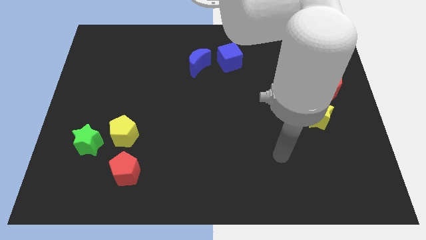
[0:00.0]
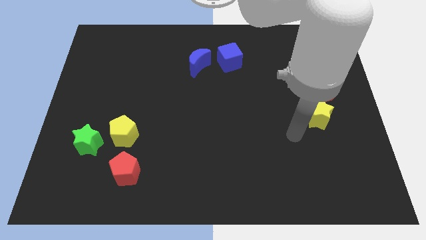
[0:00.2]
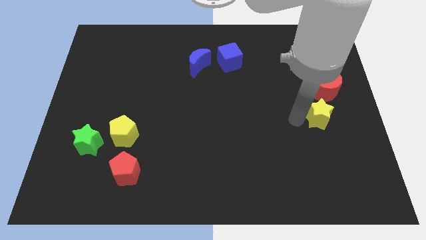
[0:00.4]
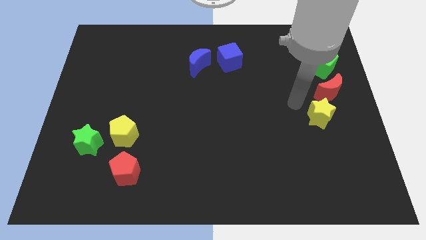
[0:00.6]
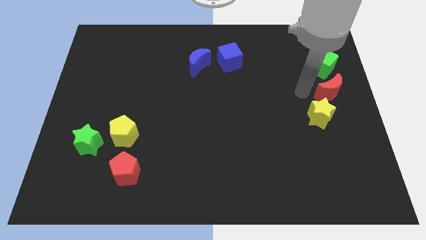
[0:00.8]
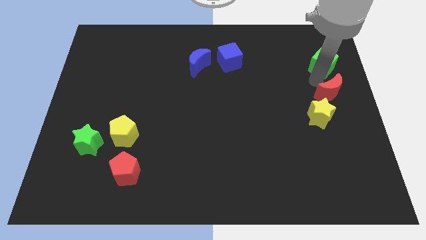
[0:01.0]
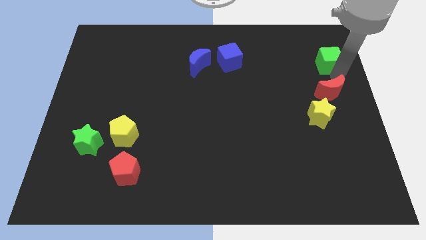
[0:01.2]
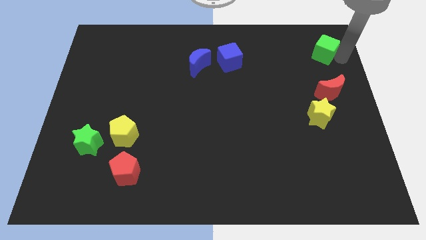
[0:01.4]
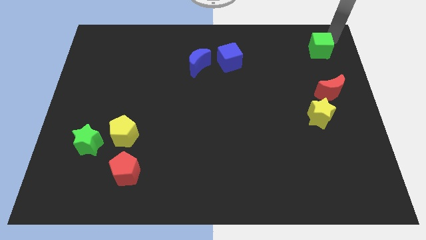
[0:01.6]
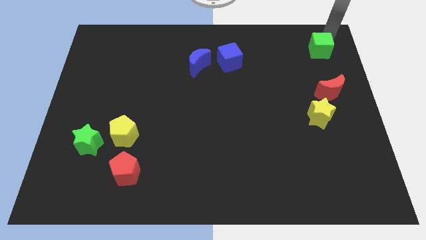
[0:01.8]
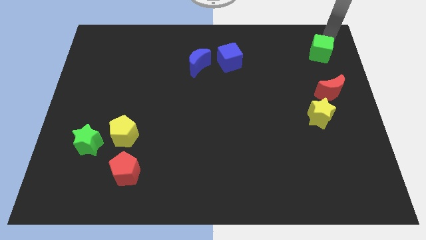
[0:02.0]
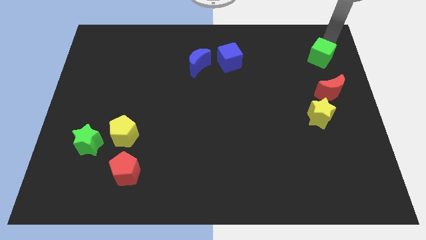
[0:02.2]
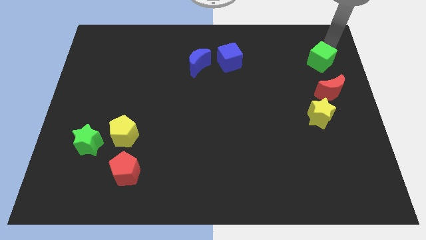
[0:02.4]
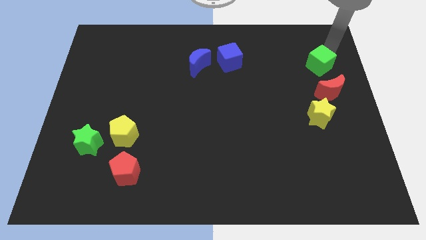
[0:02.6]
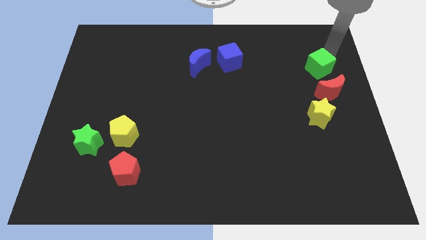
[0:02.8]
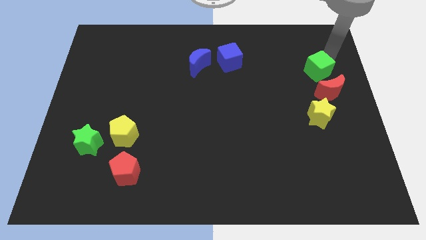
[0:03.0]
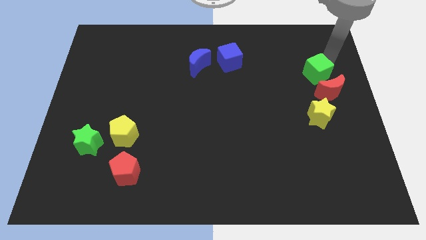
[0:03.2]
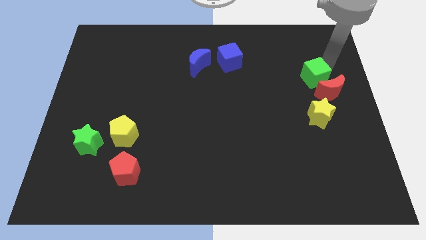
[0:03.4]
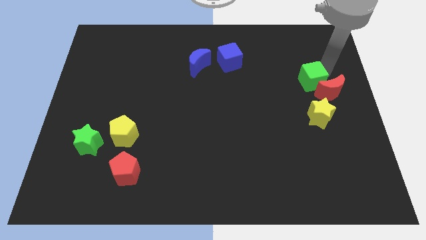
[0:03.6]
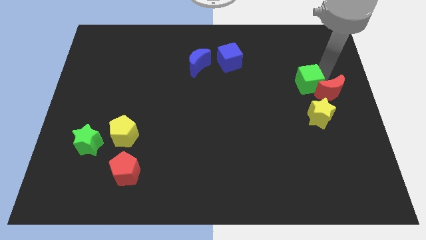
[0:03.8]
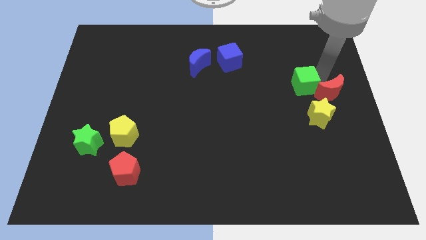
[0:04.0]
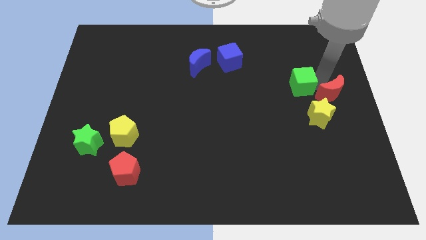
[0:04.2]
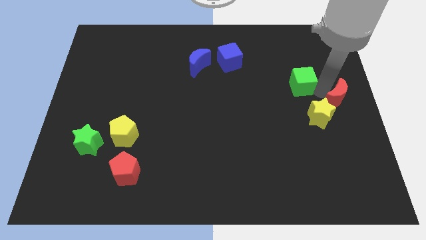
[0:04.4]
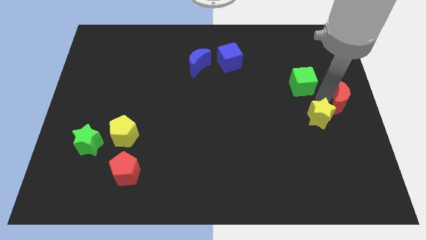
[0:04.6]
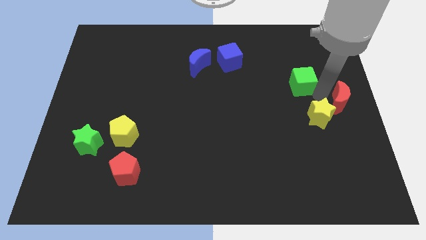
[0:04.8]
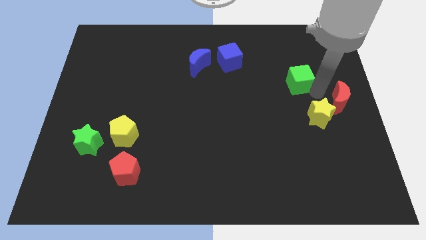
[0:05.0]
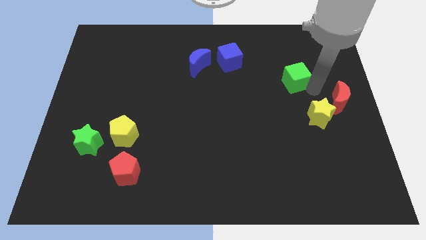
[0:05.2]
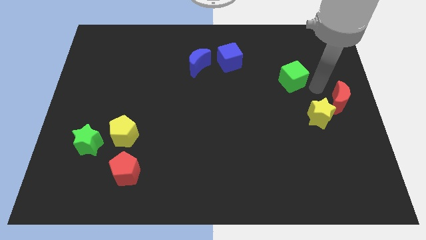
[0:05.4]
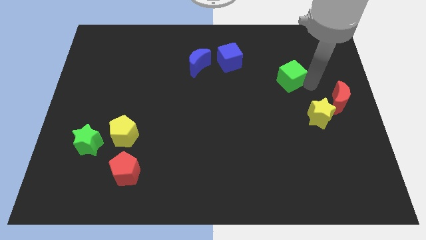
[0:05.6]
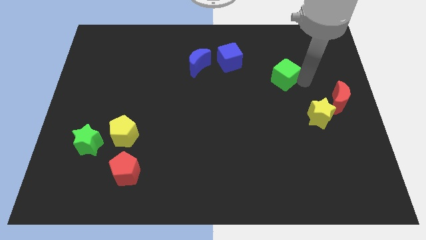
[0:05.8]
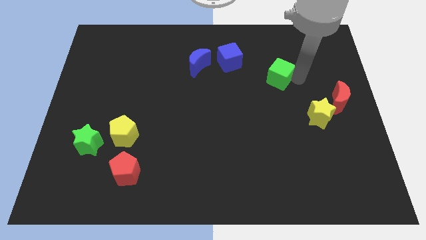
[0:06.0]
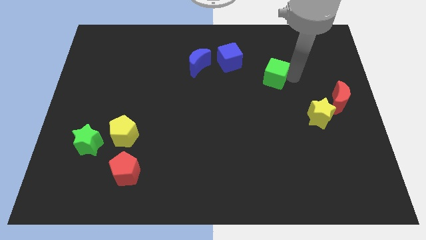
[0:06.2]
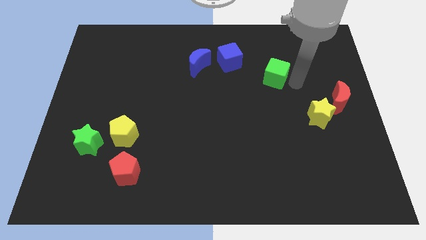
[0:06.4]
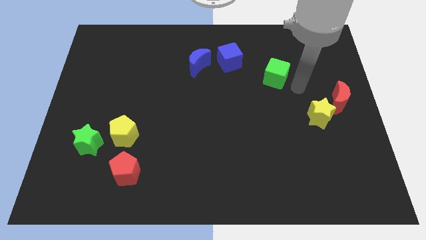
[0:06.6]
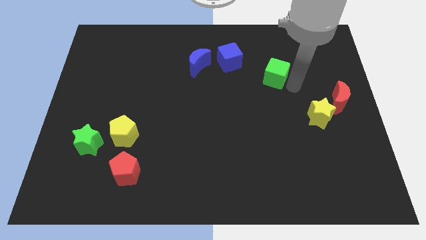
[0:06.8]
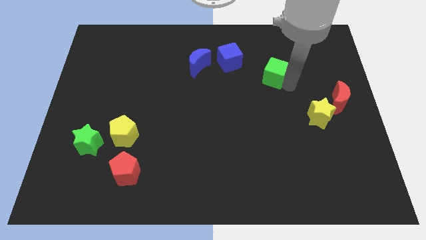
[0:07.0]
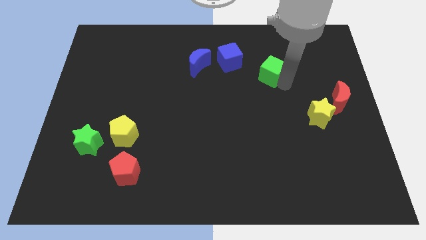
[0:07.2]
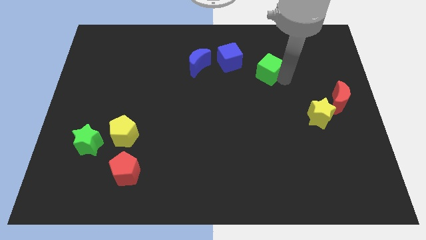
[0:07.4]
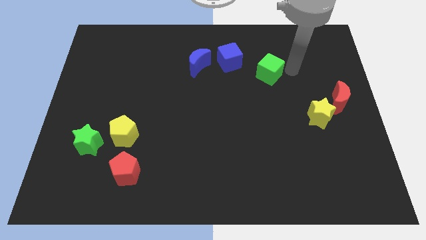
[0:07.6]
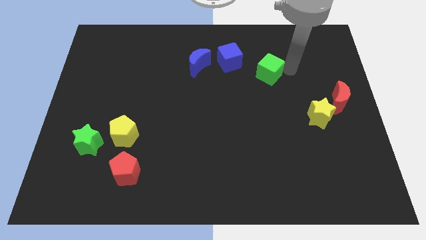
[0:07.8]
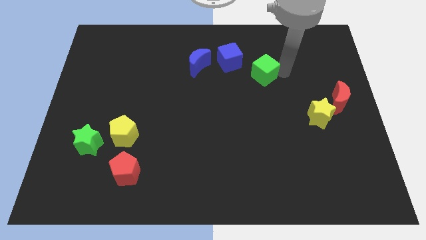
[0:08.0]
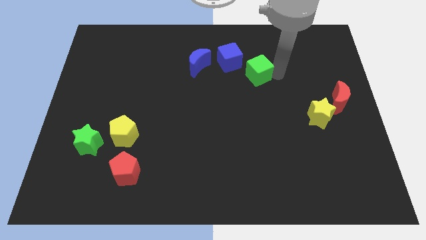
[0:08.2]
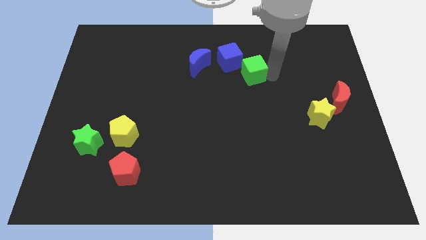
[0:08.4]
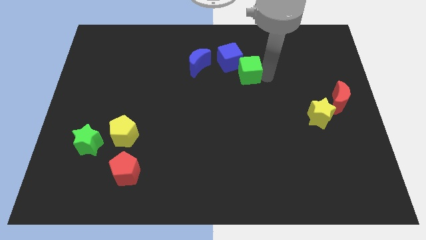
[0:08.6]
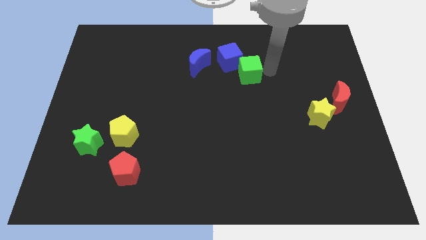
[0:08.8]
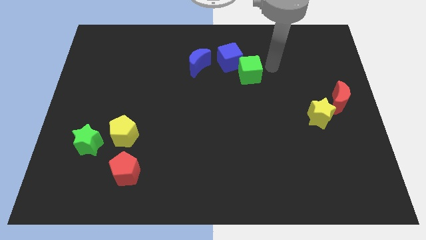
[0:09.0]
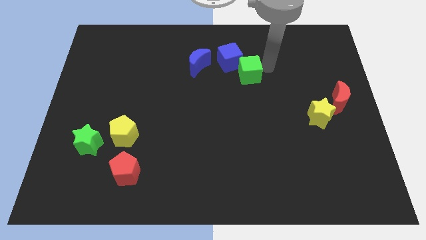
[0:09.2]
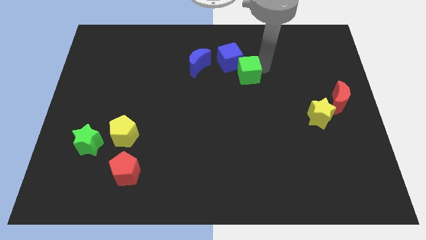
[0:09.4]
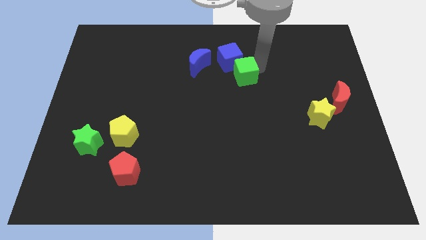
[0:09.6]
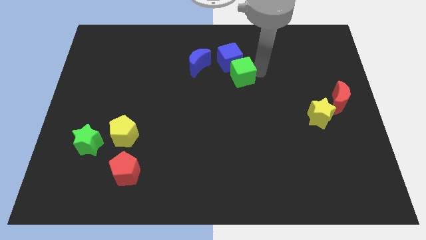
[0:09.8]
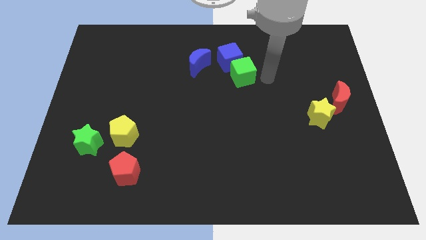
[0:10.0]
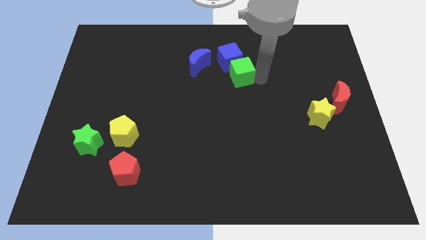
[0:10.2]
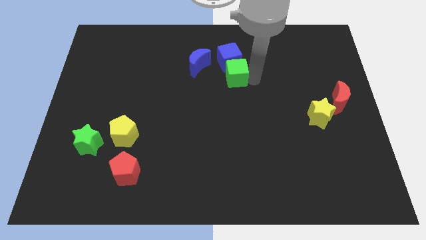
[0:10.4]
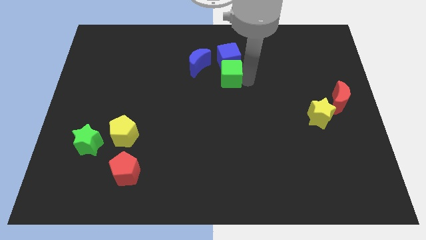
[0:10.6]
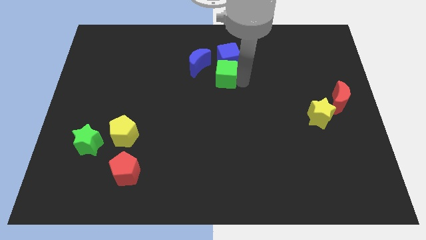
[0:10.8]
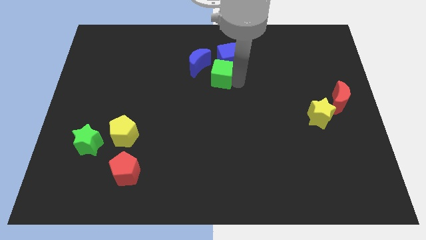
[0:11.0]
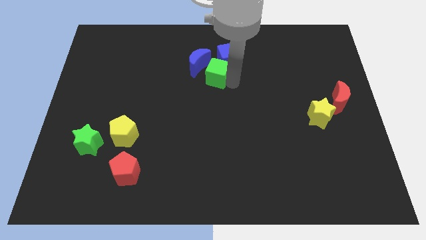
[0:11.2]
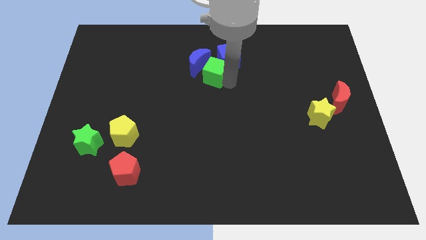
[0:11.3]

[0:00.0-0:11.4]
push the green cube close to the blue moon

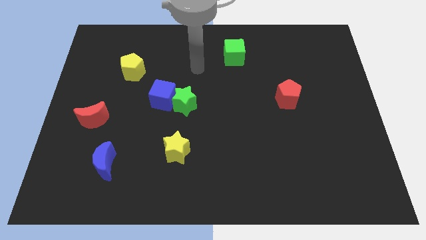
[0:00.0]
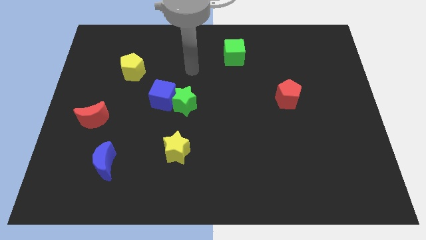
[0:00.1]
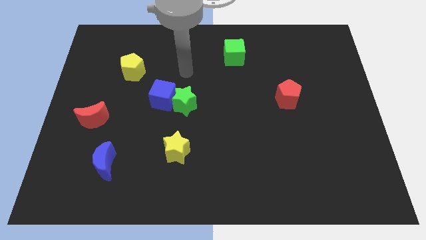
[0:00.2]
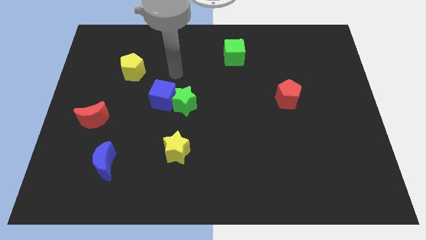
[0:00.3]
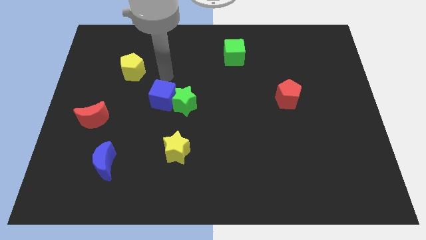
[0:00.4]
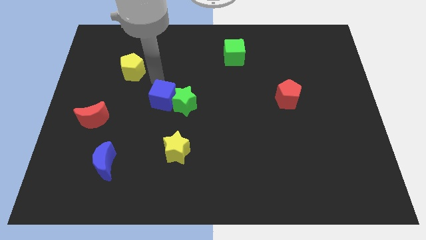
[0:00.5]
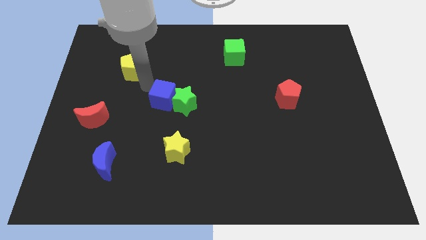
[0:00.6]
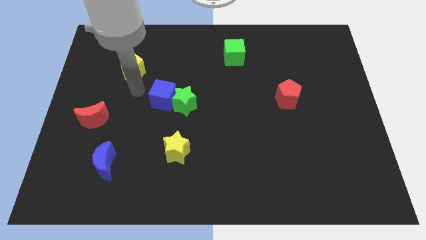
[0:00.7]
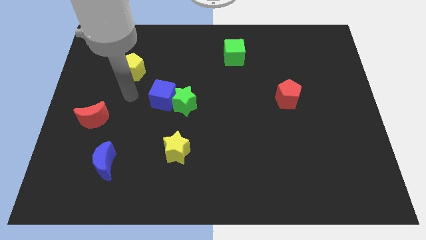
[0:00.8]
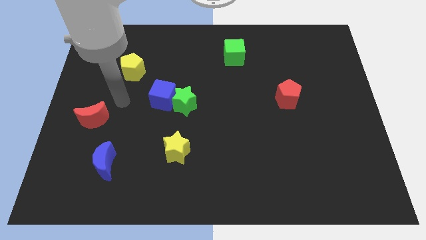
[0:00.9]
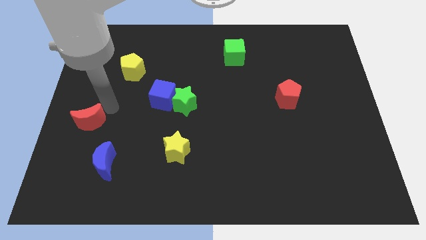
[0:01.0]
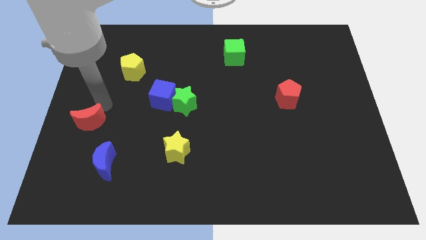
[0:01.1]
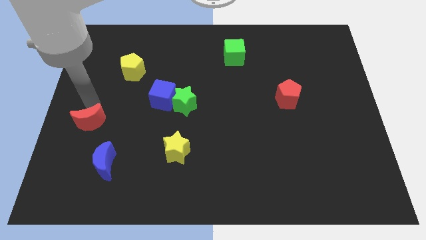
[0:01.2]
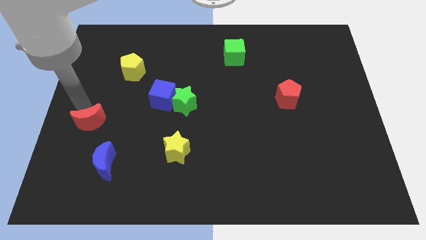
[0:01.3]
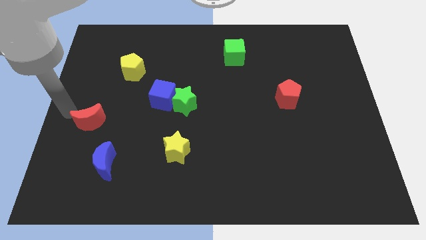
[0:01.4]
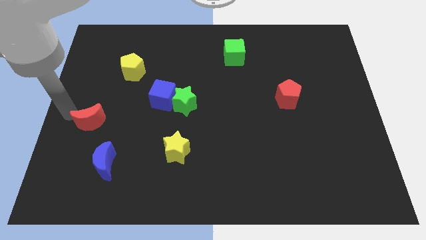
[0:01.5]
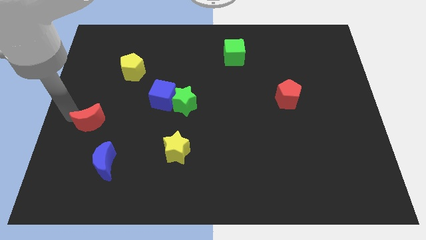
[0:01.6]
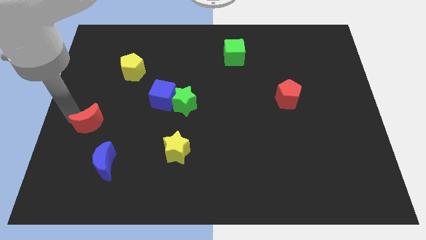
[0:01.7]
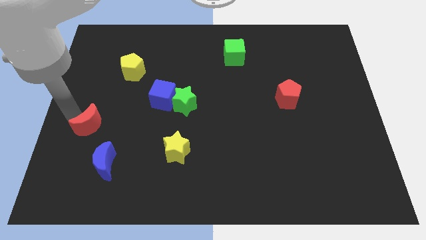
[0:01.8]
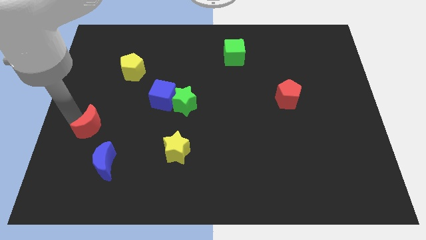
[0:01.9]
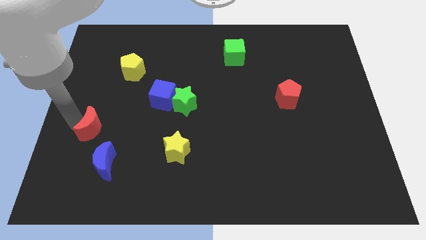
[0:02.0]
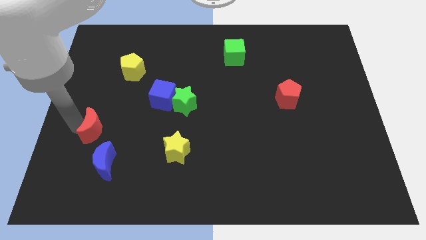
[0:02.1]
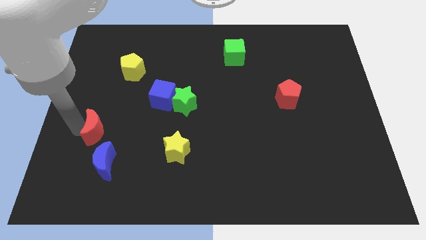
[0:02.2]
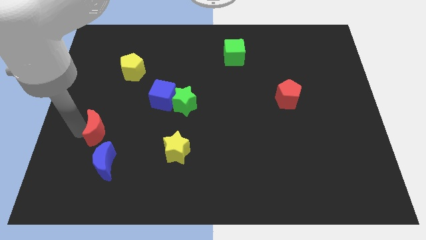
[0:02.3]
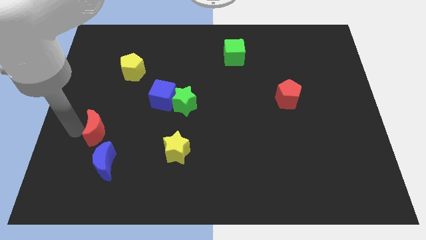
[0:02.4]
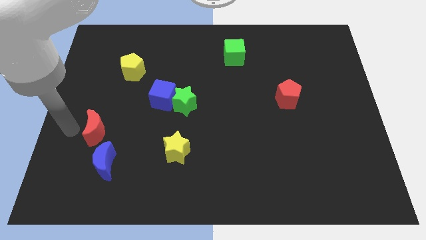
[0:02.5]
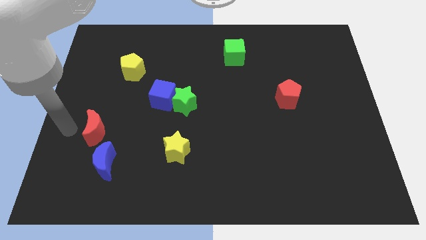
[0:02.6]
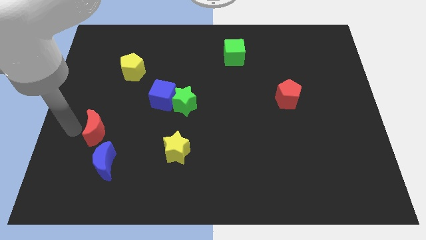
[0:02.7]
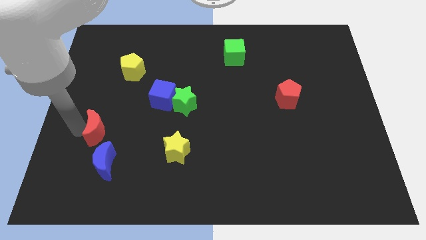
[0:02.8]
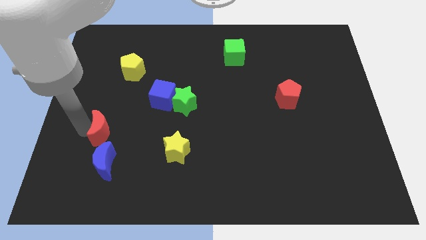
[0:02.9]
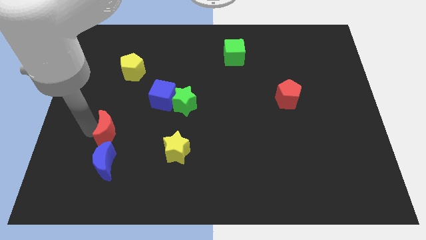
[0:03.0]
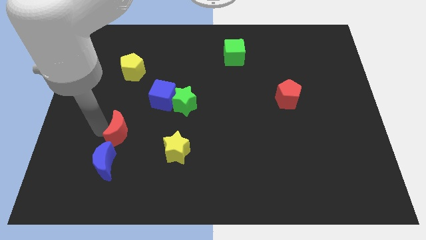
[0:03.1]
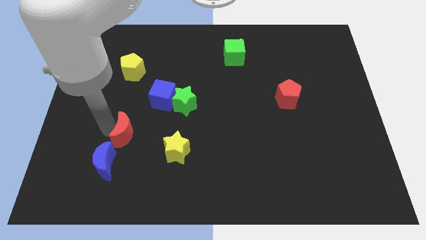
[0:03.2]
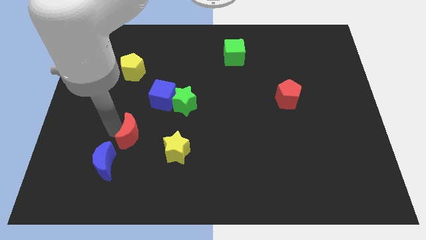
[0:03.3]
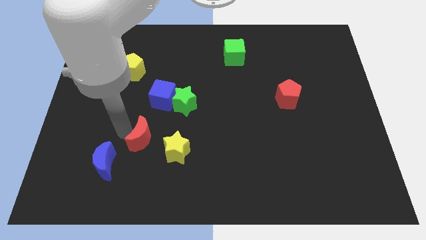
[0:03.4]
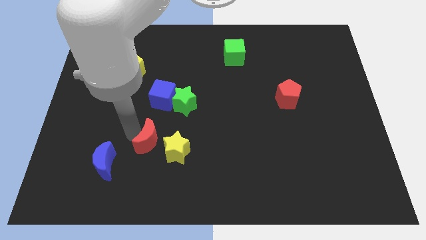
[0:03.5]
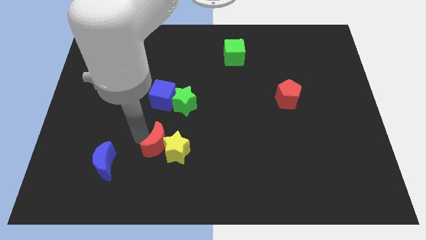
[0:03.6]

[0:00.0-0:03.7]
slide the red moon next to the yellow star
